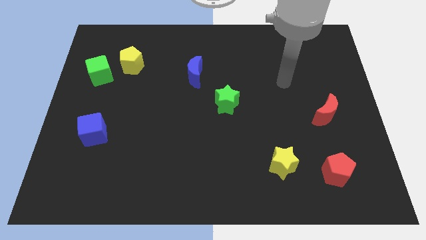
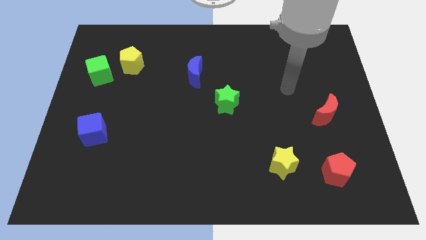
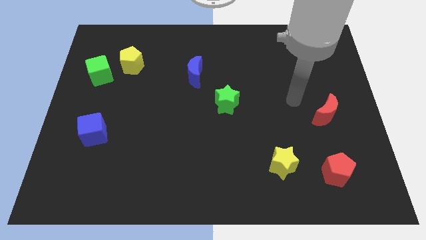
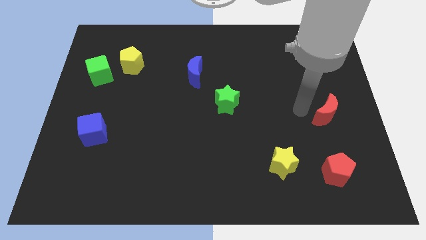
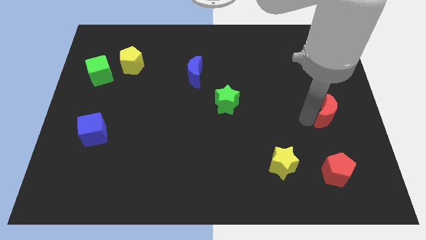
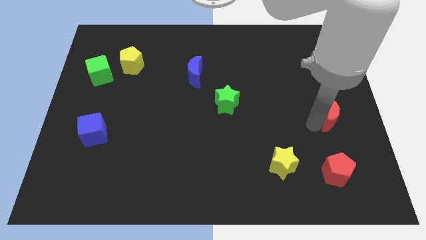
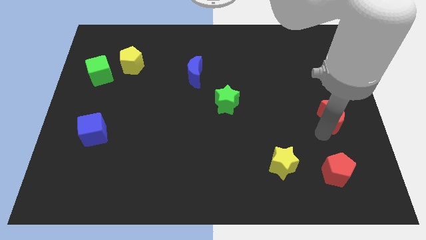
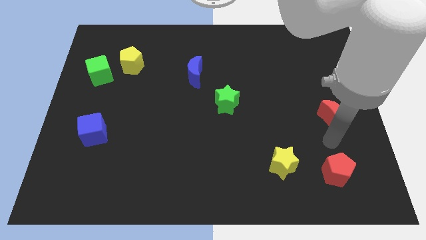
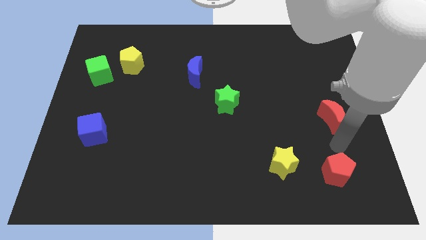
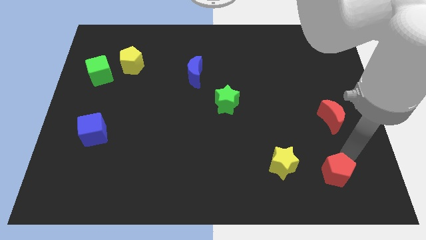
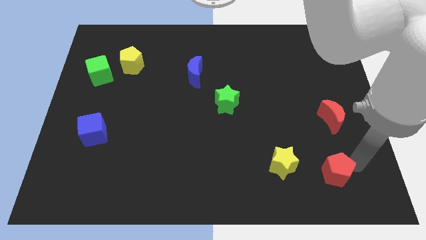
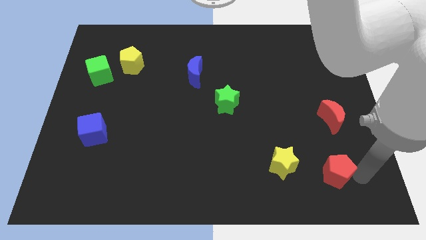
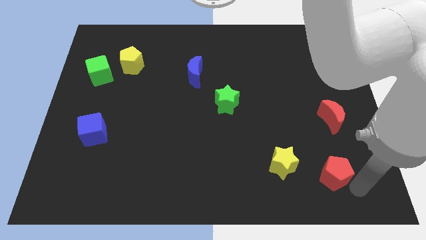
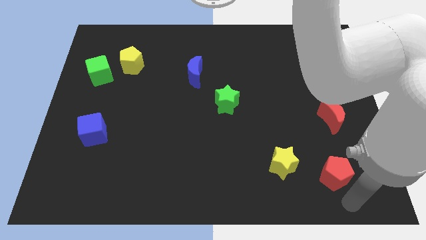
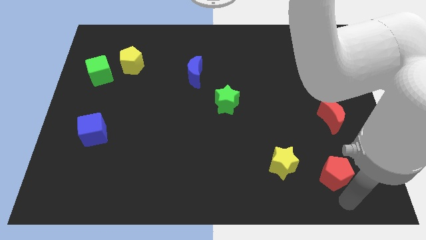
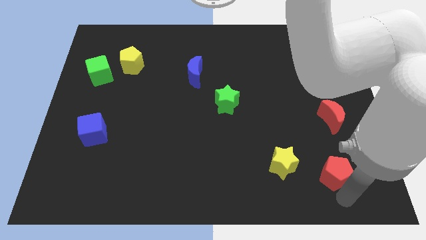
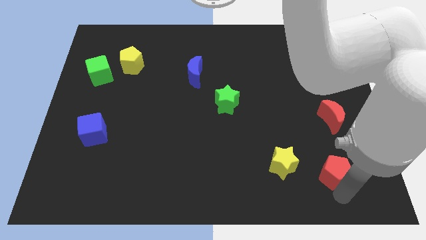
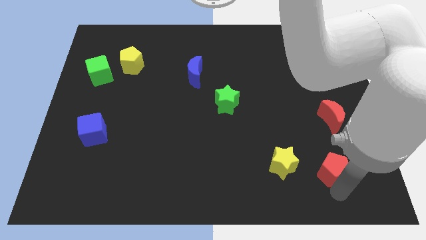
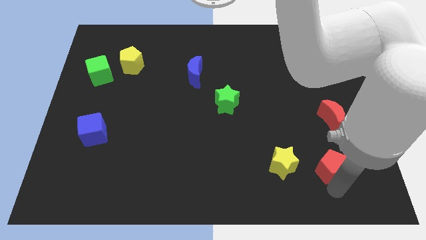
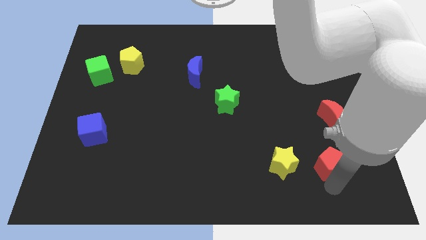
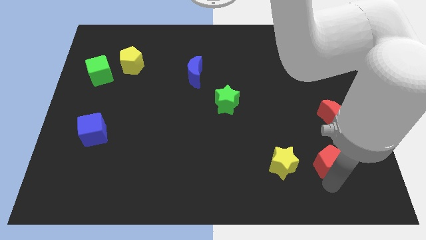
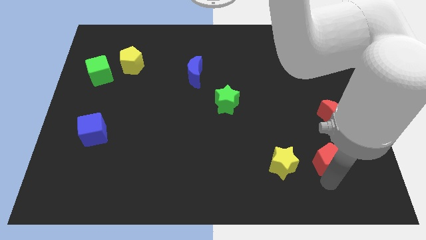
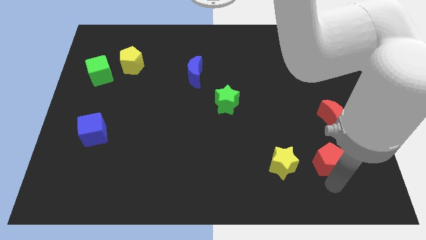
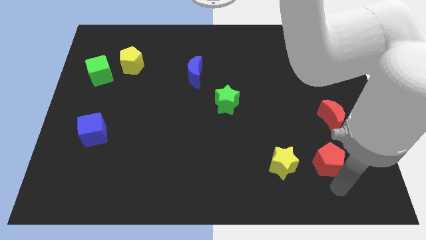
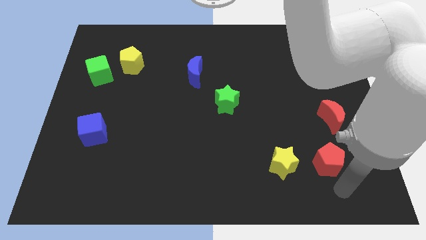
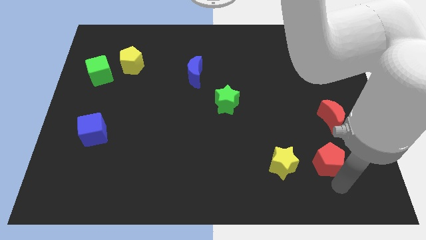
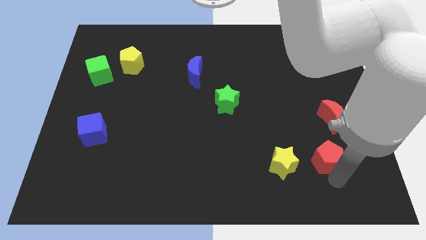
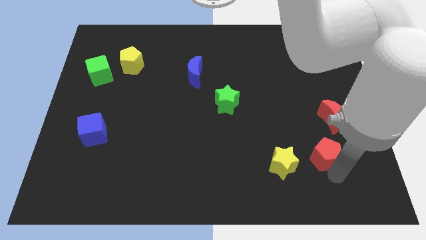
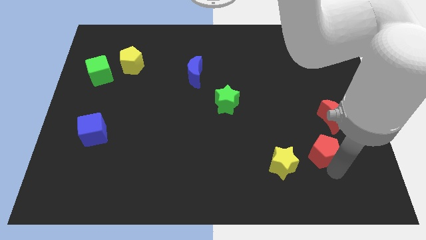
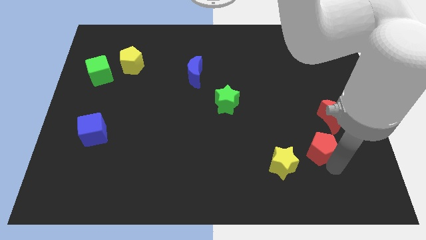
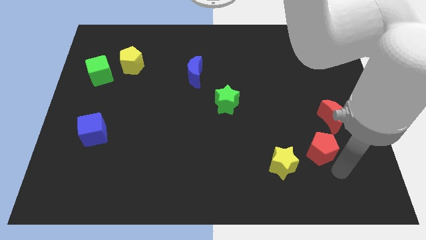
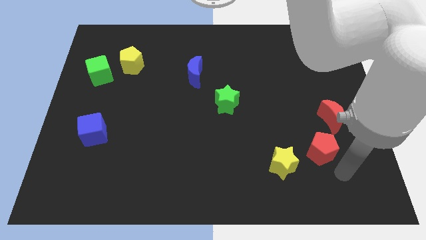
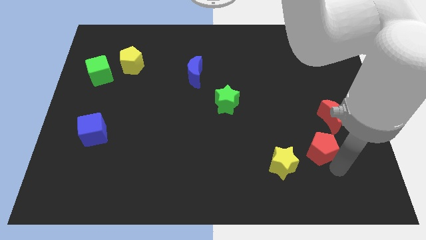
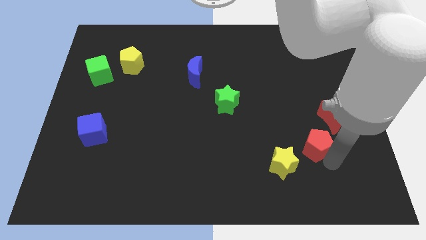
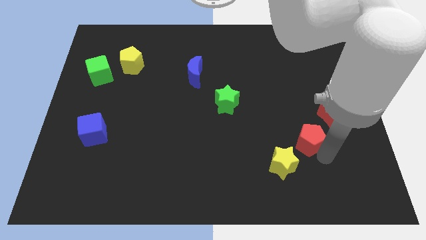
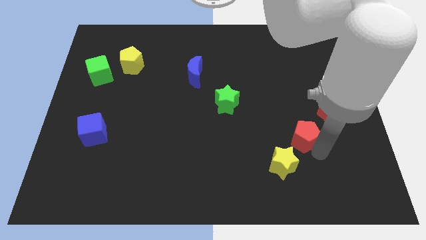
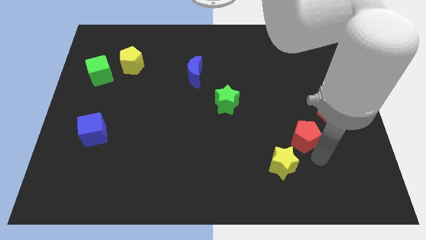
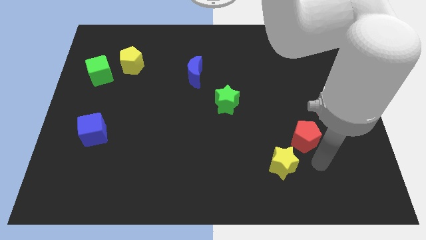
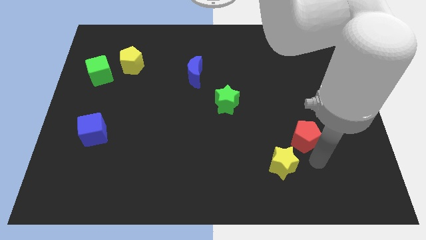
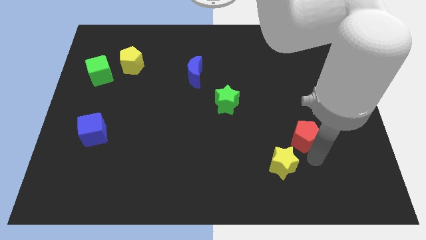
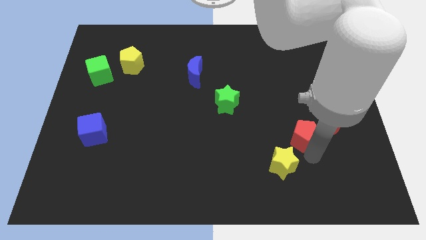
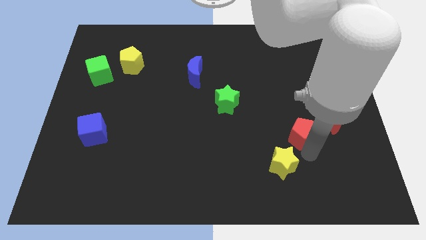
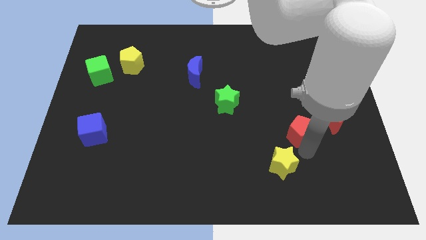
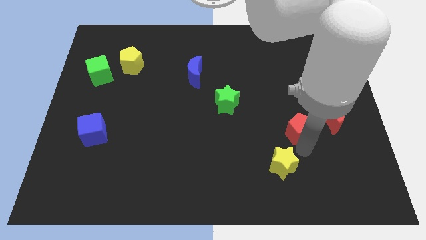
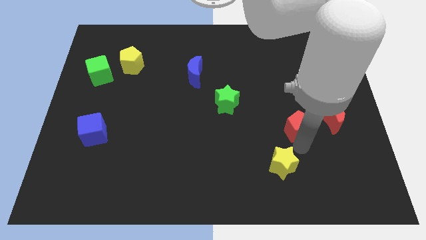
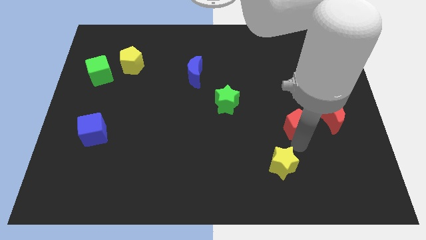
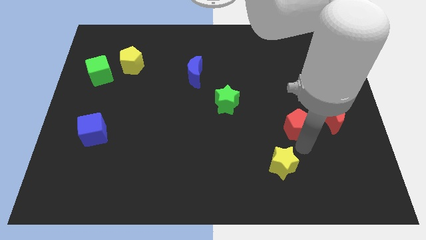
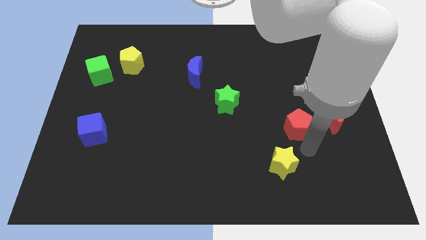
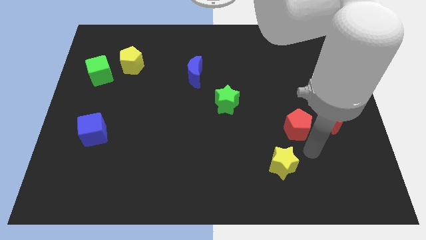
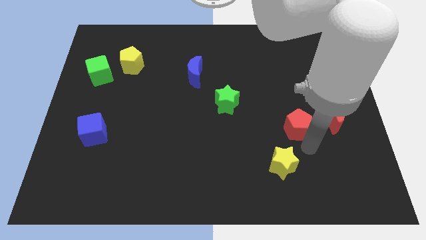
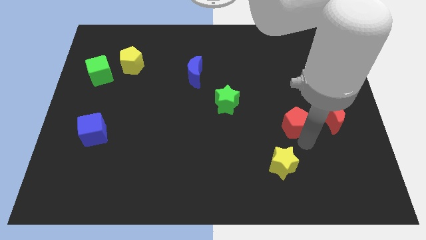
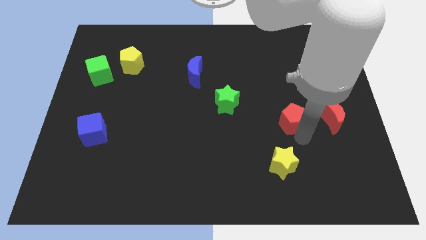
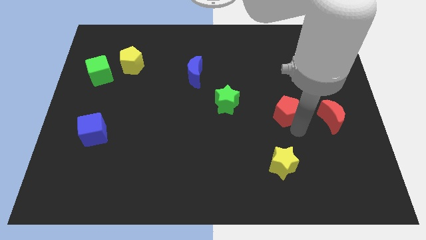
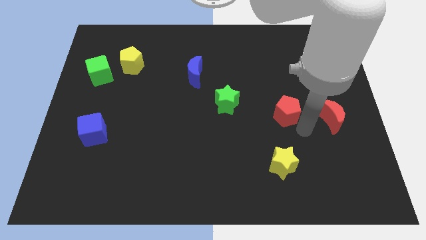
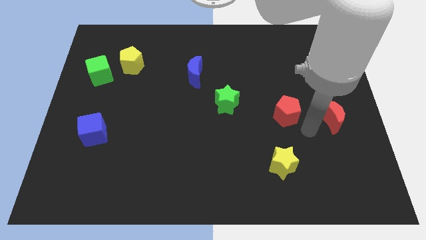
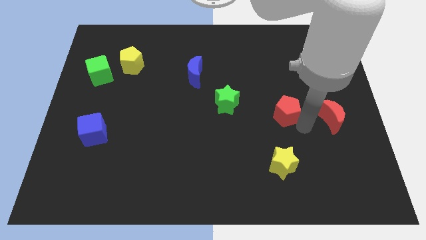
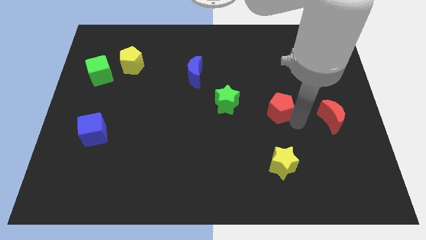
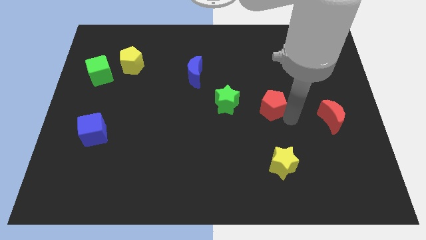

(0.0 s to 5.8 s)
slide the red pentagon upwards and left

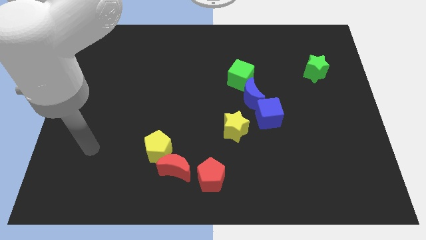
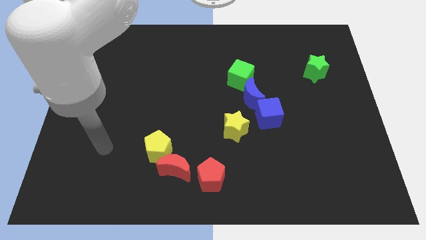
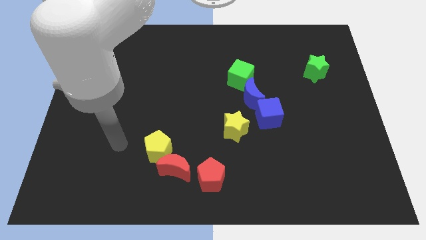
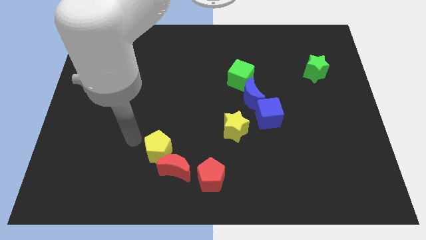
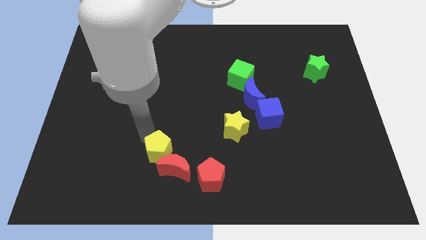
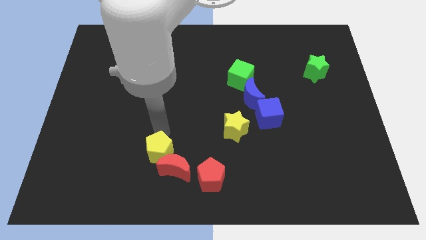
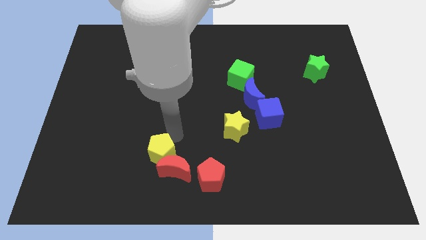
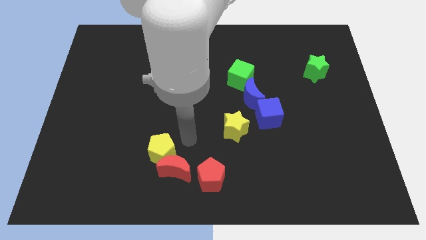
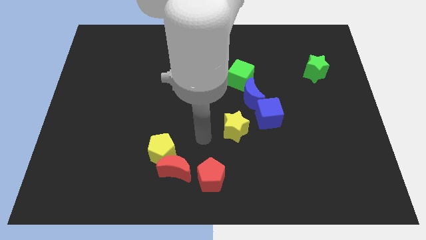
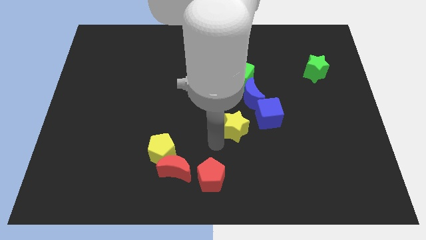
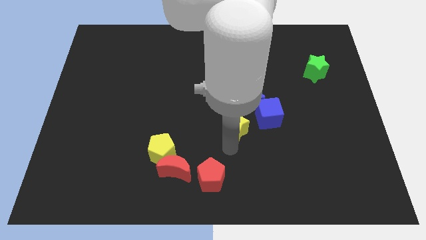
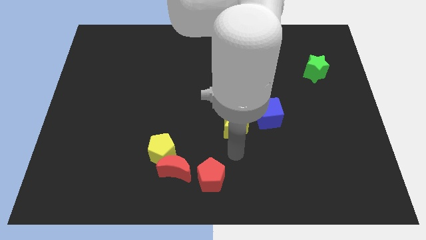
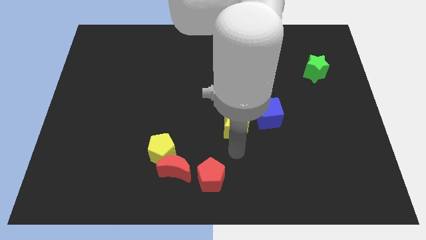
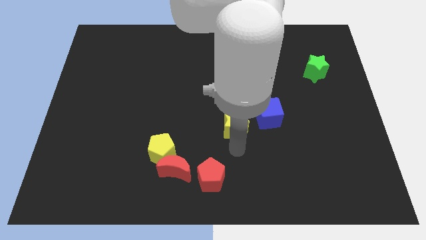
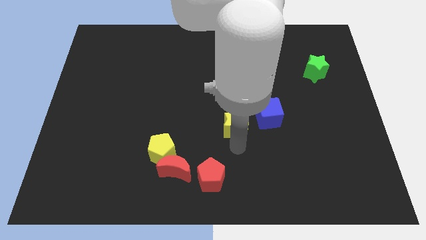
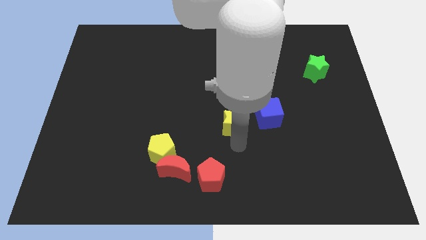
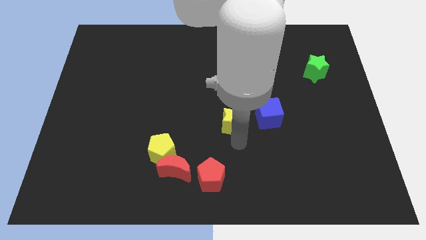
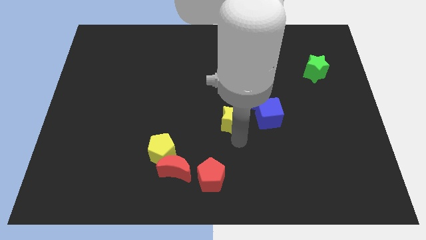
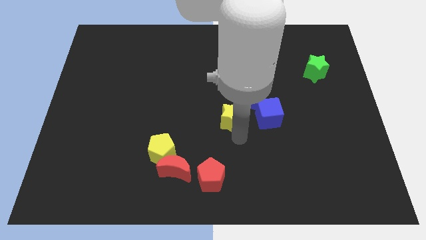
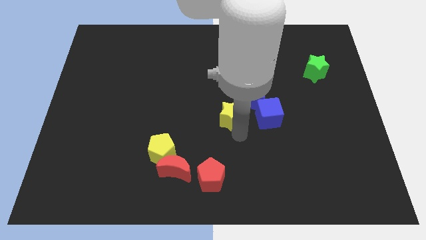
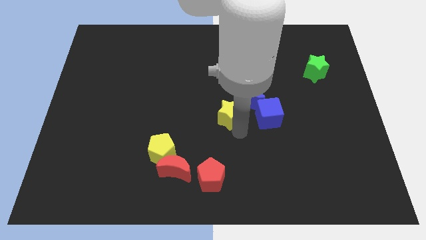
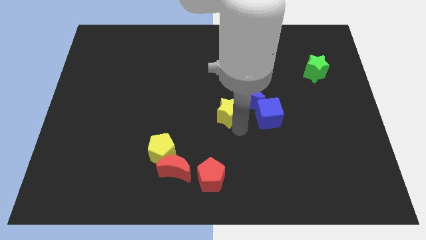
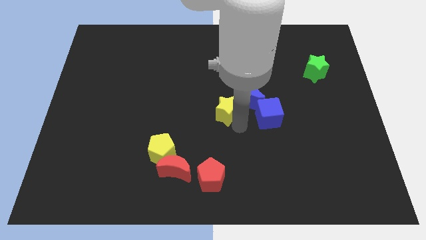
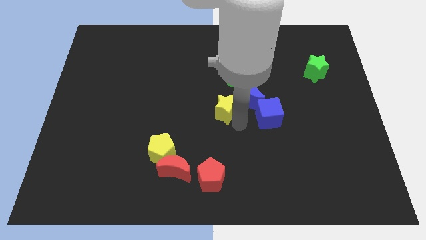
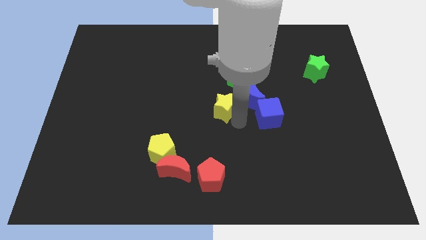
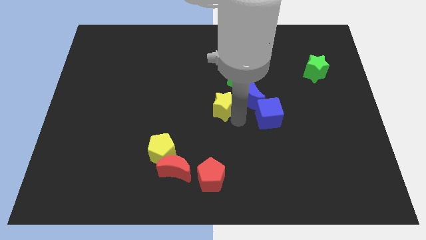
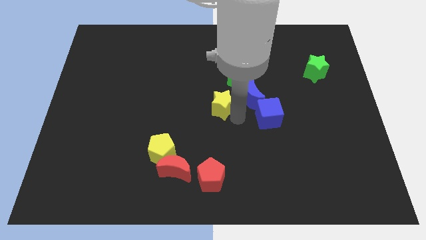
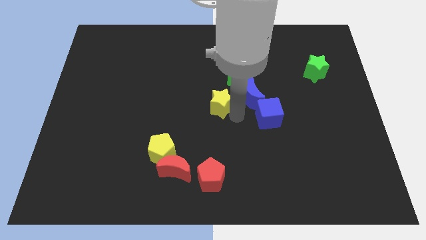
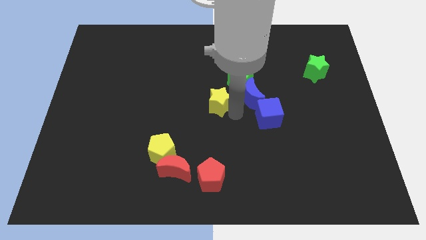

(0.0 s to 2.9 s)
slightly move the yellow star up
